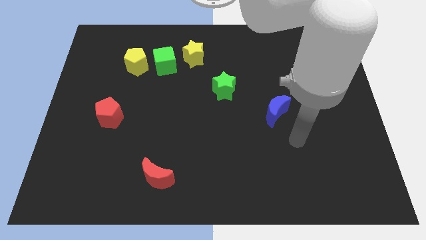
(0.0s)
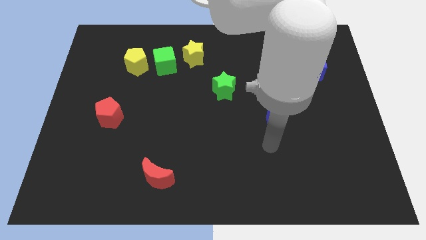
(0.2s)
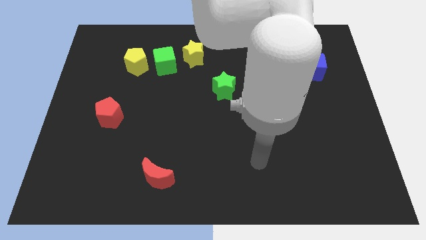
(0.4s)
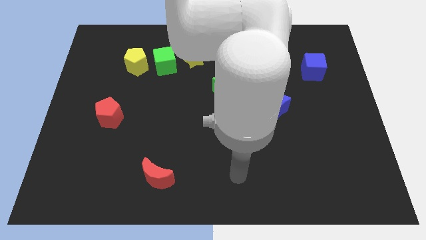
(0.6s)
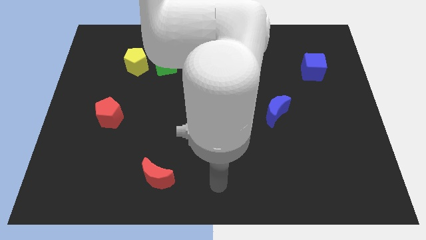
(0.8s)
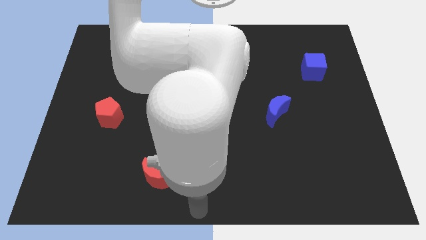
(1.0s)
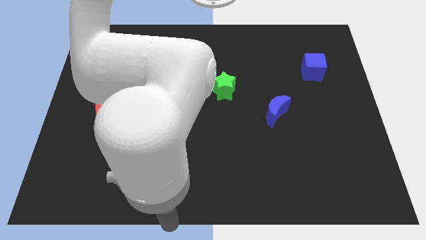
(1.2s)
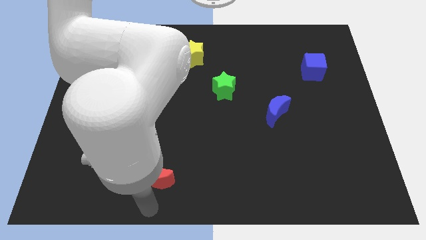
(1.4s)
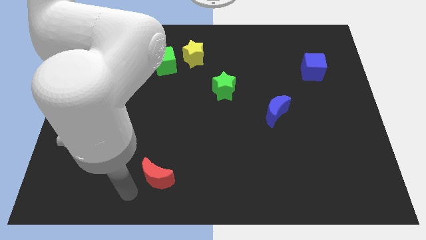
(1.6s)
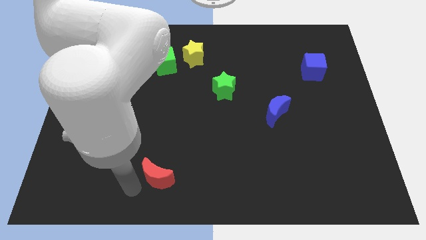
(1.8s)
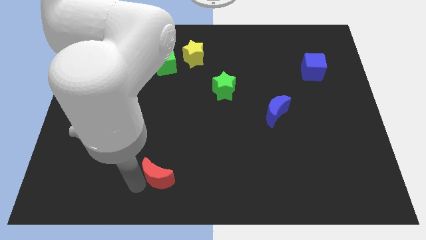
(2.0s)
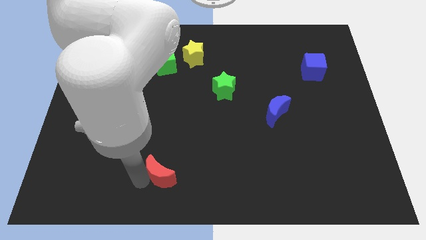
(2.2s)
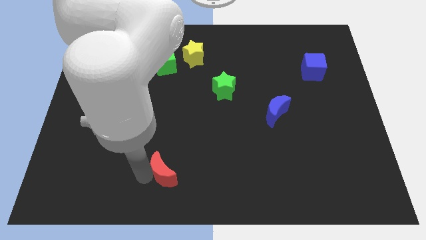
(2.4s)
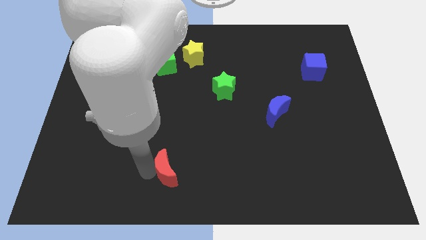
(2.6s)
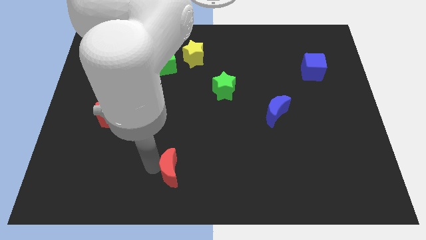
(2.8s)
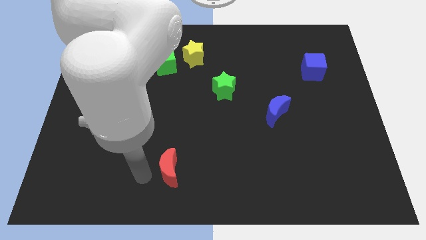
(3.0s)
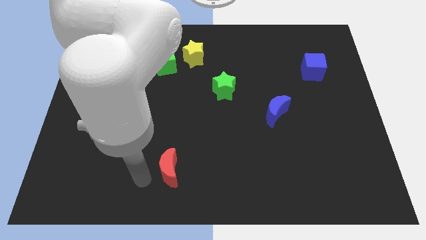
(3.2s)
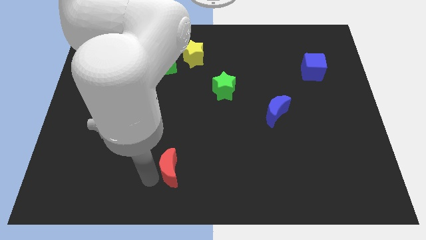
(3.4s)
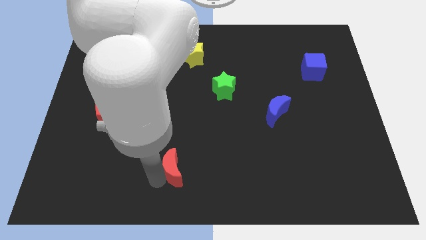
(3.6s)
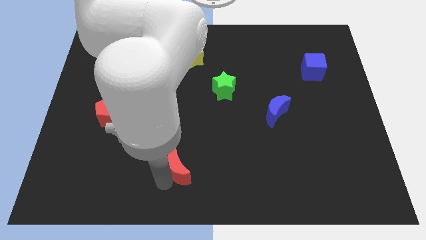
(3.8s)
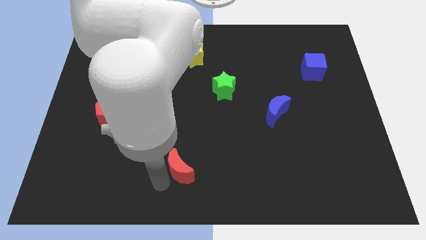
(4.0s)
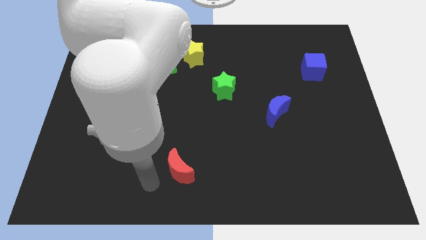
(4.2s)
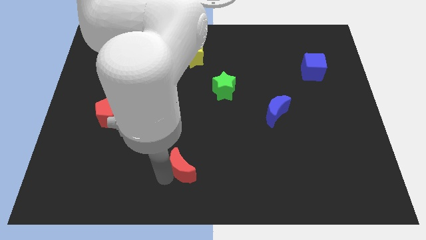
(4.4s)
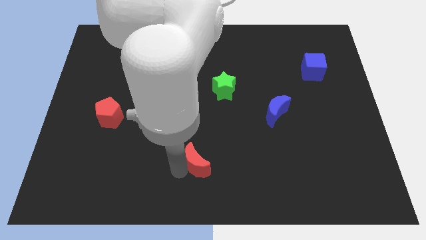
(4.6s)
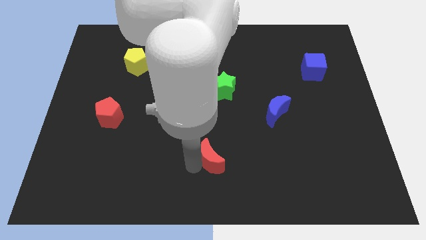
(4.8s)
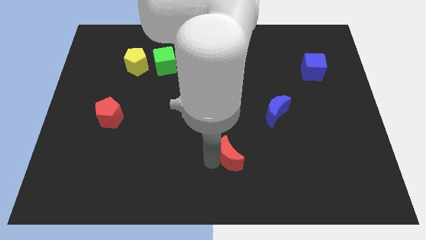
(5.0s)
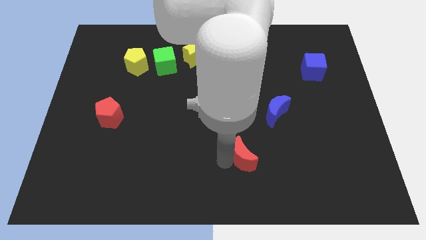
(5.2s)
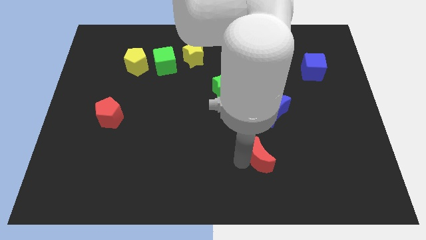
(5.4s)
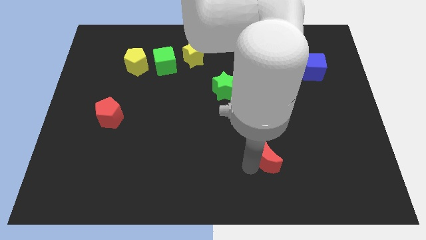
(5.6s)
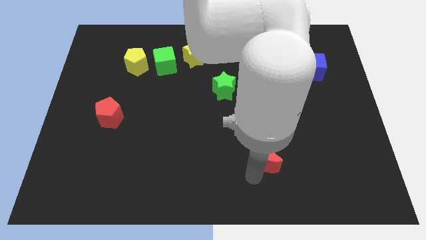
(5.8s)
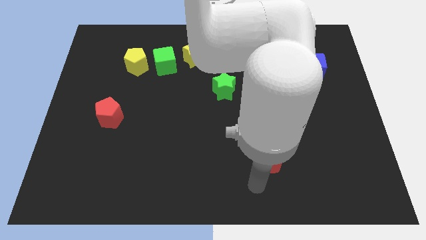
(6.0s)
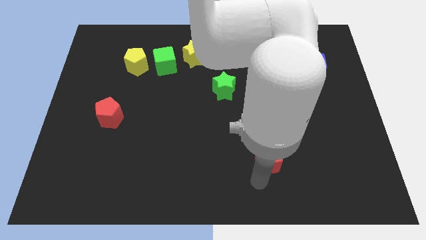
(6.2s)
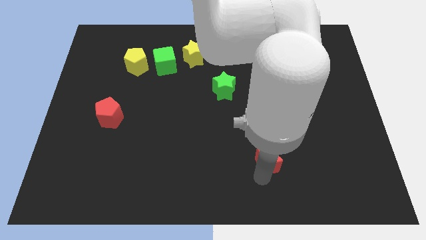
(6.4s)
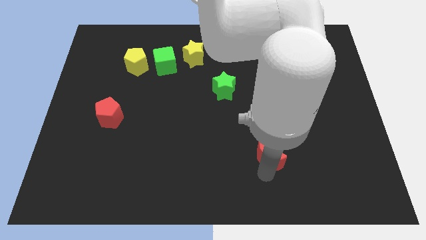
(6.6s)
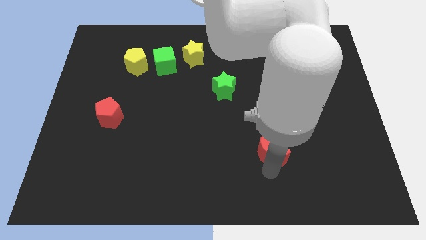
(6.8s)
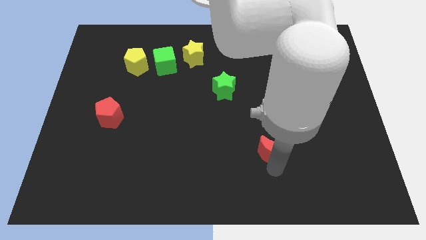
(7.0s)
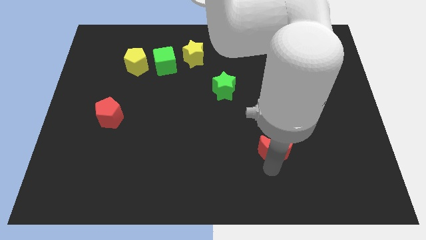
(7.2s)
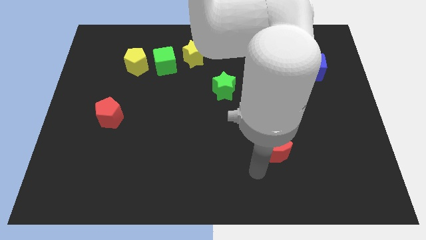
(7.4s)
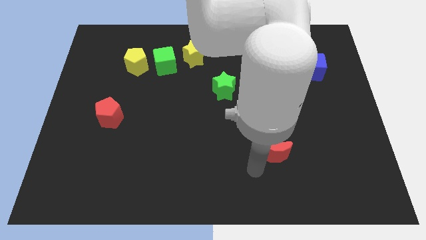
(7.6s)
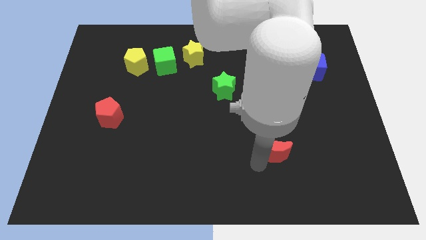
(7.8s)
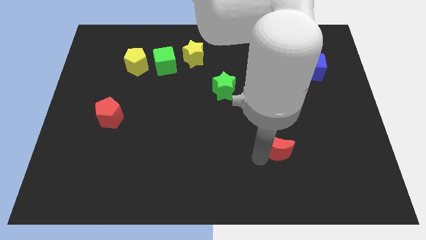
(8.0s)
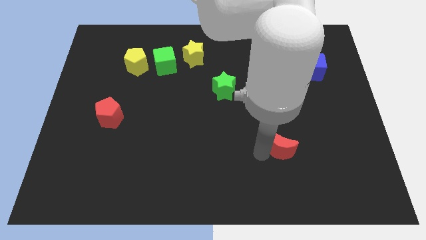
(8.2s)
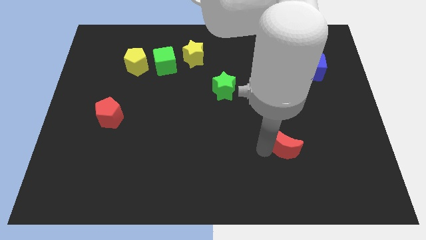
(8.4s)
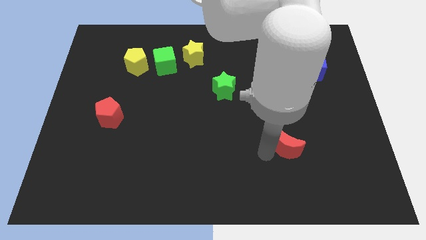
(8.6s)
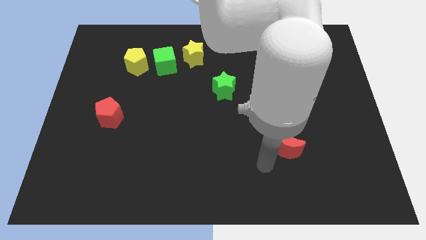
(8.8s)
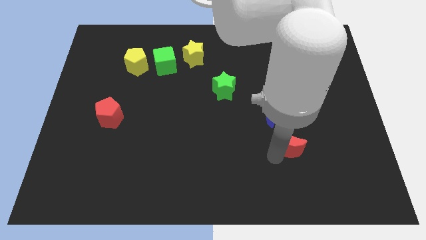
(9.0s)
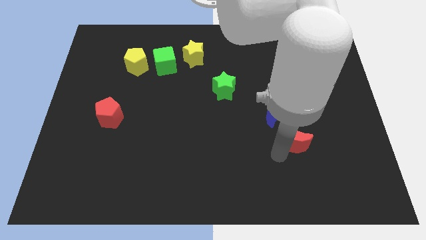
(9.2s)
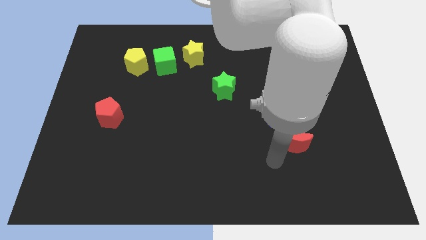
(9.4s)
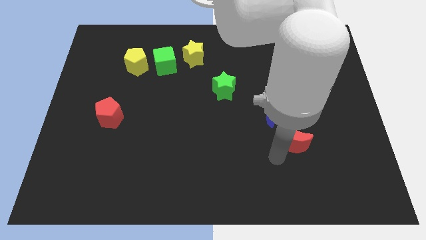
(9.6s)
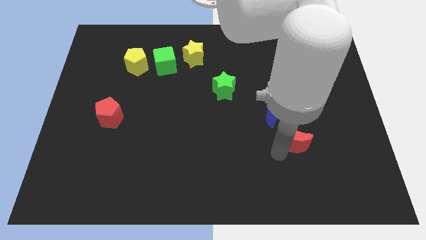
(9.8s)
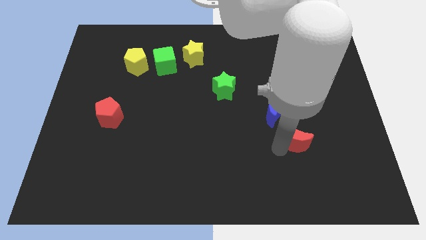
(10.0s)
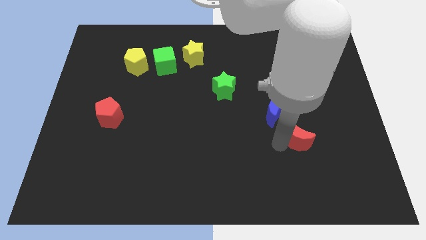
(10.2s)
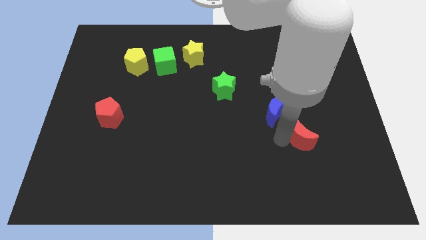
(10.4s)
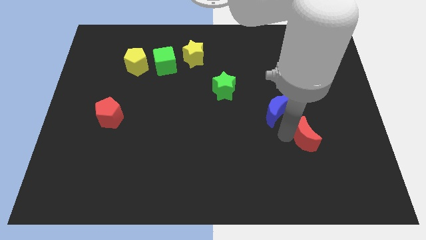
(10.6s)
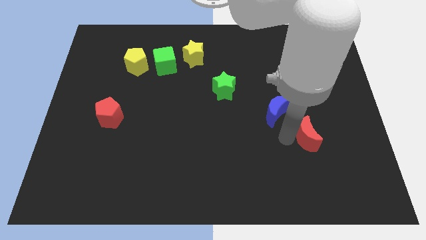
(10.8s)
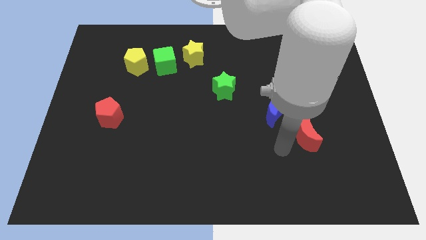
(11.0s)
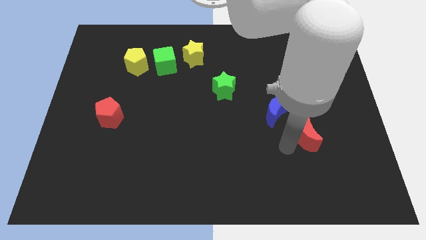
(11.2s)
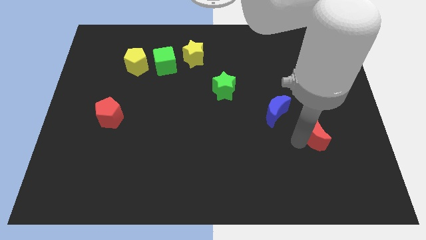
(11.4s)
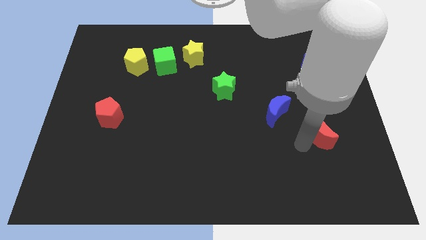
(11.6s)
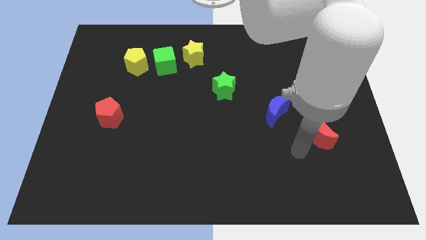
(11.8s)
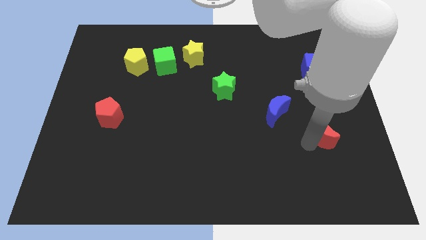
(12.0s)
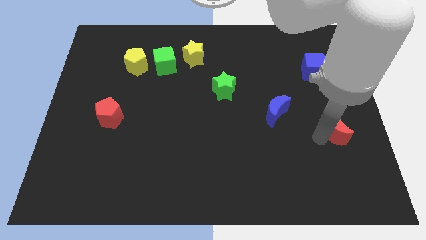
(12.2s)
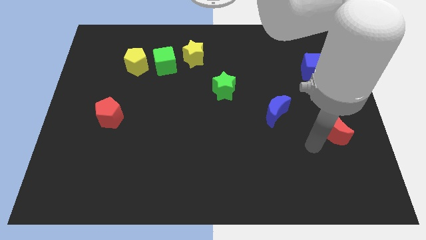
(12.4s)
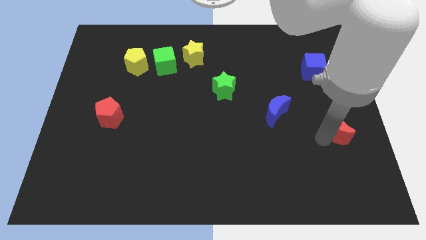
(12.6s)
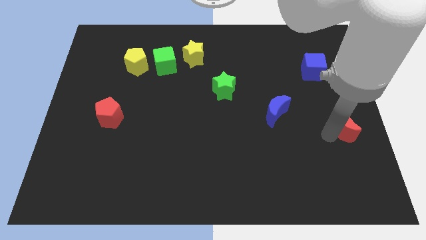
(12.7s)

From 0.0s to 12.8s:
move the red moon to the right side of the board

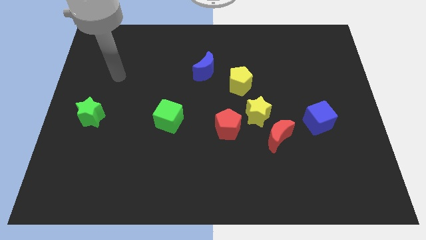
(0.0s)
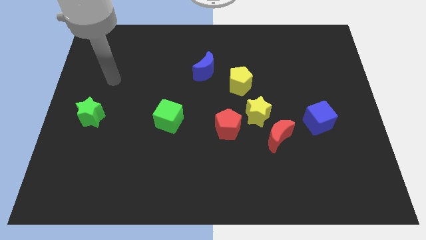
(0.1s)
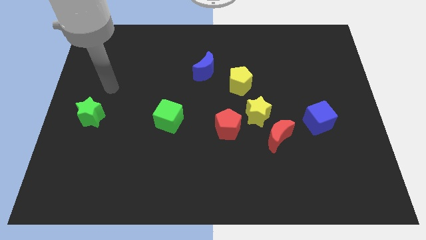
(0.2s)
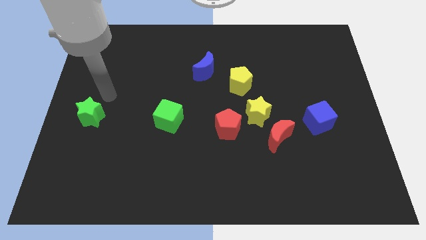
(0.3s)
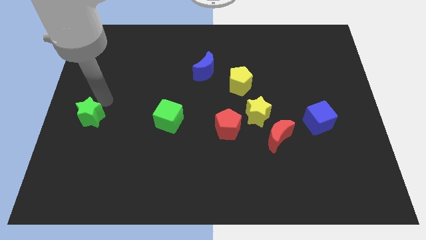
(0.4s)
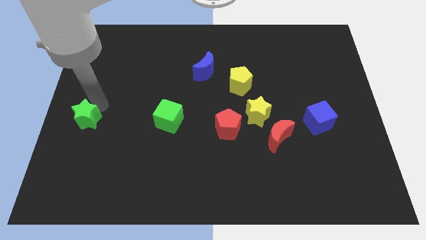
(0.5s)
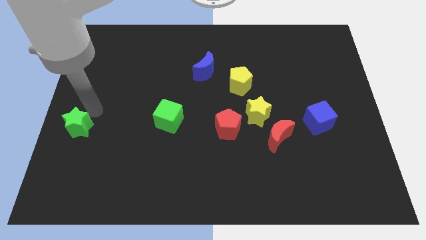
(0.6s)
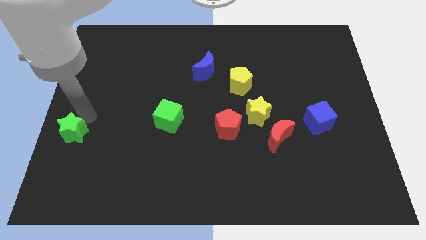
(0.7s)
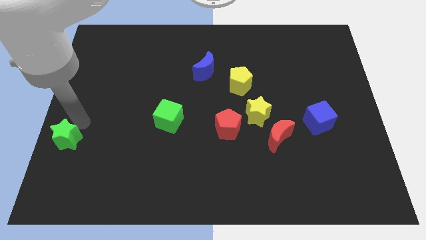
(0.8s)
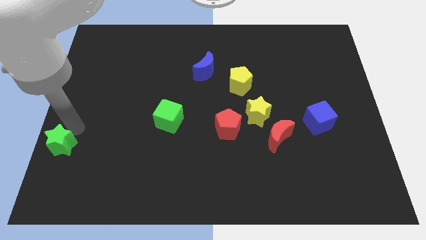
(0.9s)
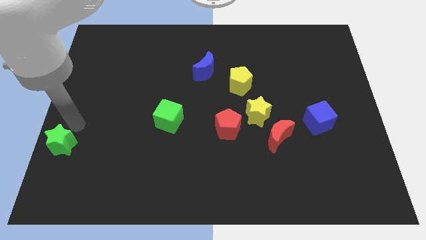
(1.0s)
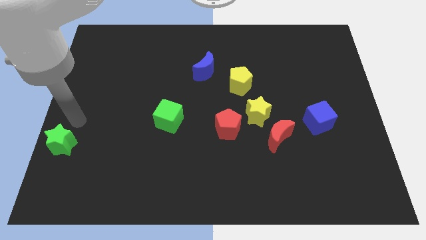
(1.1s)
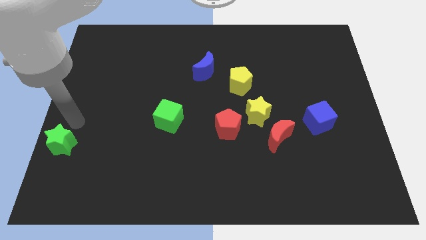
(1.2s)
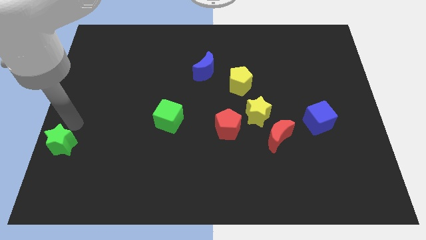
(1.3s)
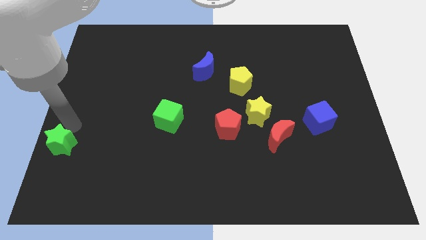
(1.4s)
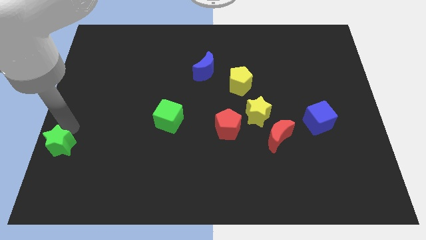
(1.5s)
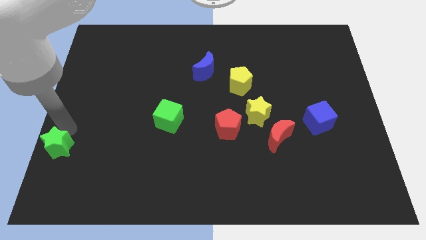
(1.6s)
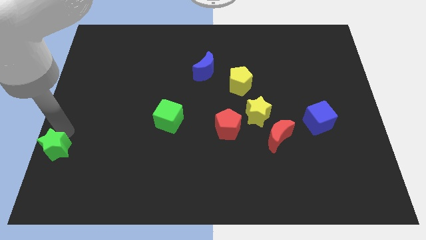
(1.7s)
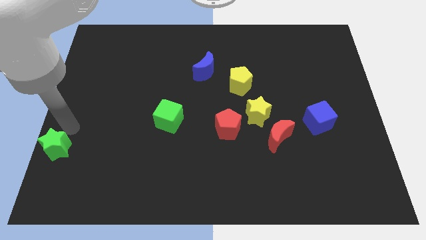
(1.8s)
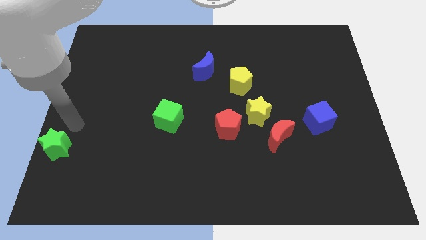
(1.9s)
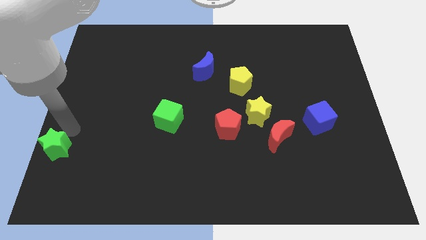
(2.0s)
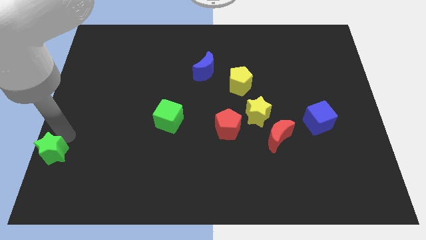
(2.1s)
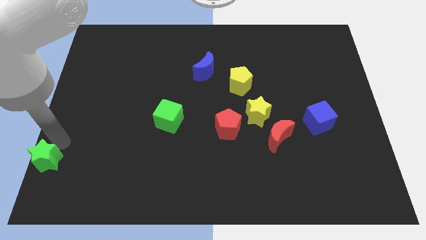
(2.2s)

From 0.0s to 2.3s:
slide the green star to the bottom left
